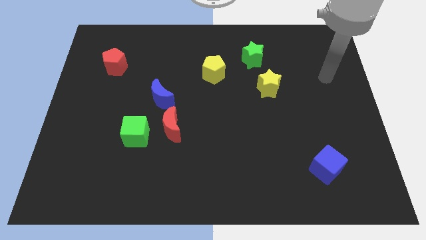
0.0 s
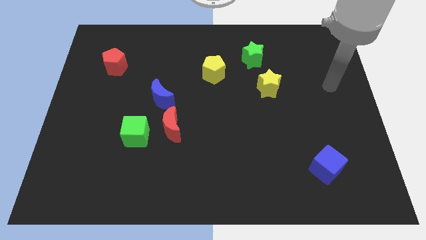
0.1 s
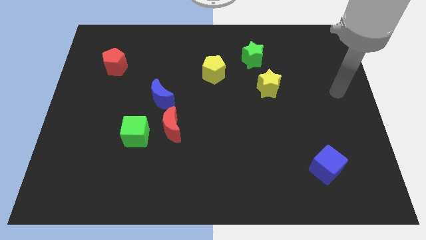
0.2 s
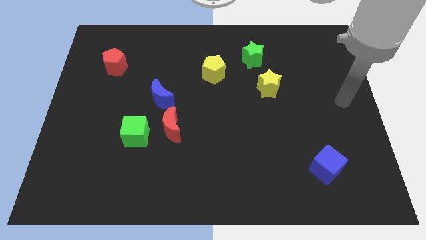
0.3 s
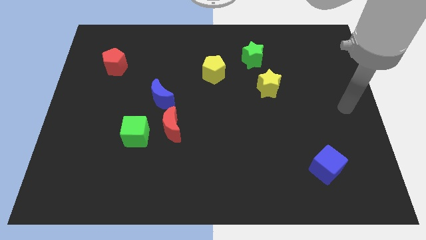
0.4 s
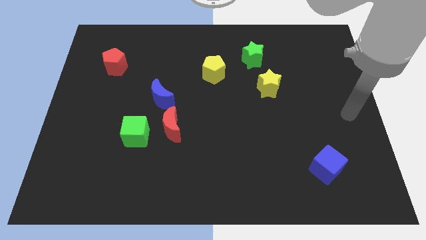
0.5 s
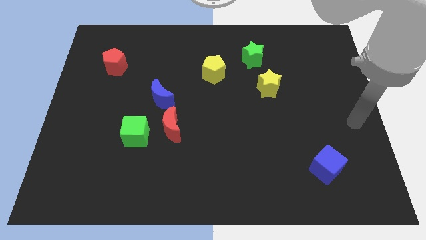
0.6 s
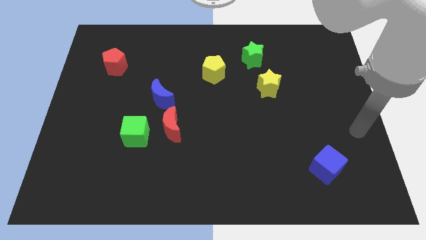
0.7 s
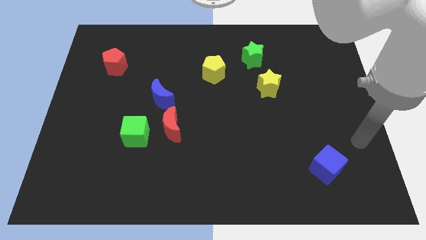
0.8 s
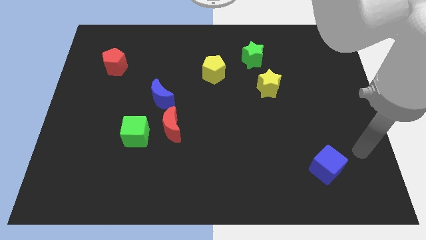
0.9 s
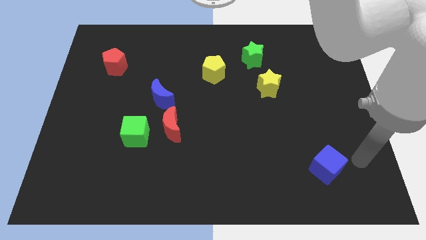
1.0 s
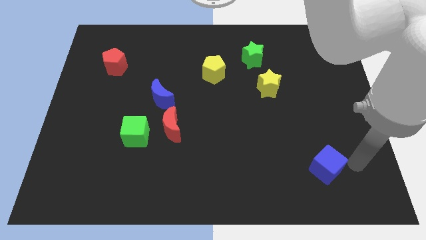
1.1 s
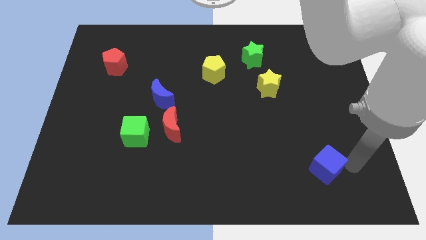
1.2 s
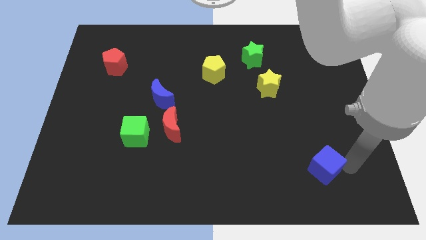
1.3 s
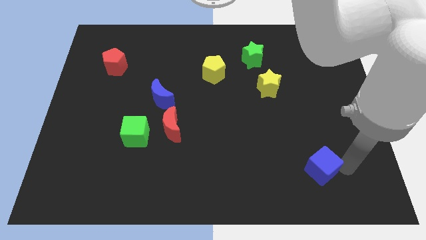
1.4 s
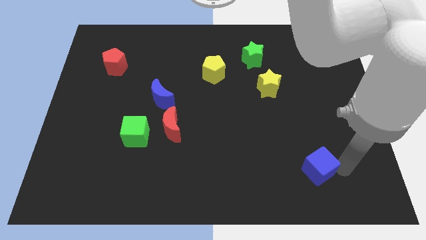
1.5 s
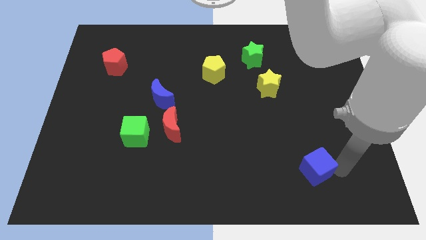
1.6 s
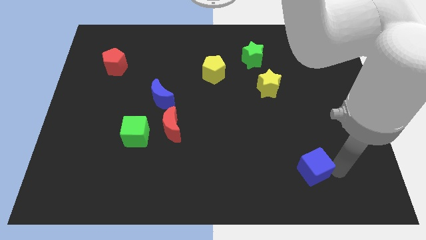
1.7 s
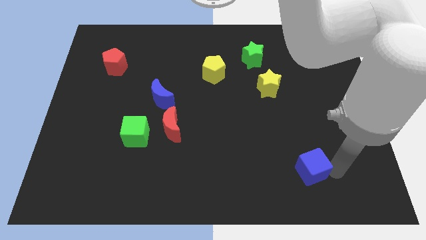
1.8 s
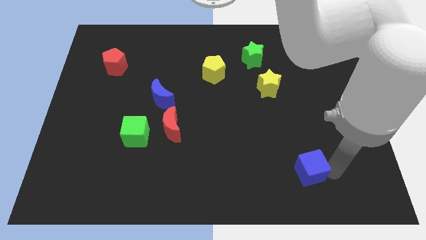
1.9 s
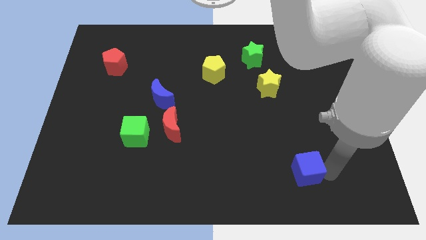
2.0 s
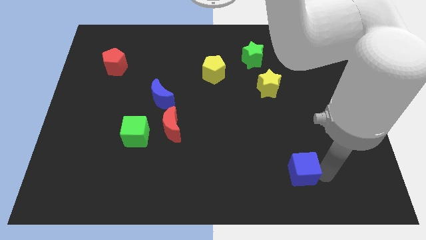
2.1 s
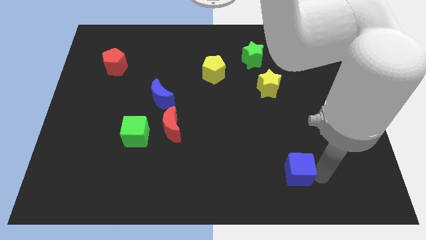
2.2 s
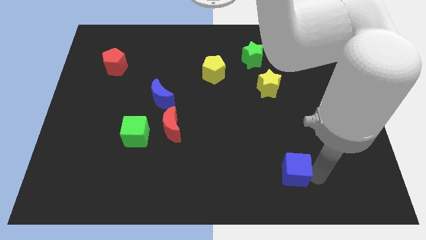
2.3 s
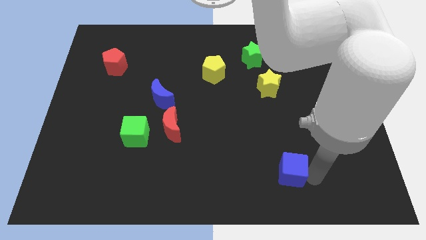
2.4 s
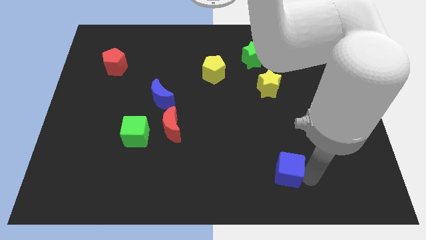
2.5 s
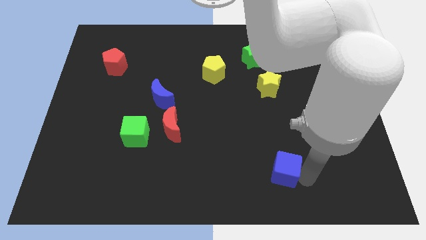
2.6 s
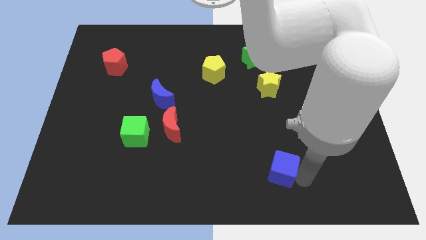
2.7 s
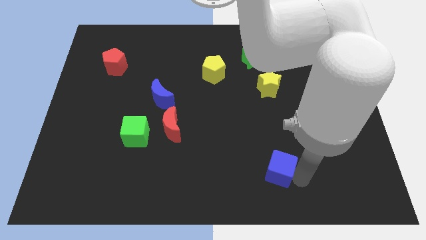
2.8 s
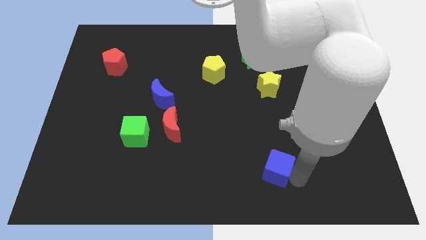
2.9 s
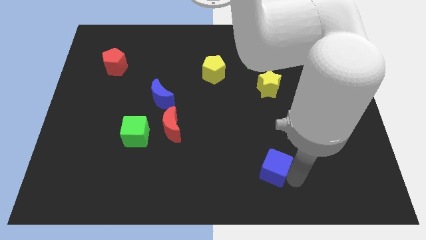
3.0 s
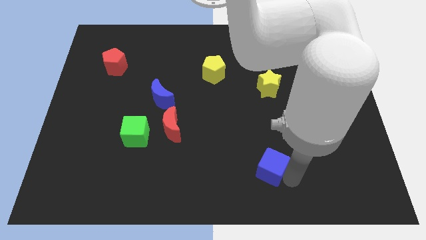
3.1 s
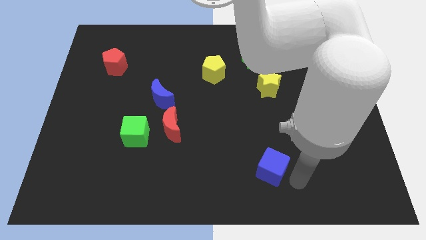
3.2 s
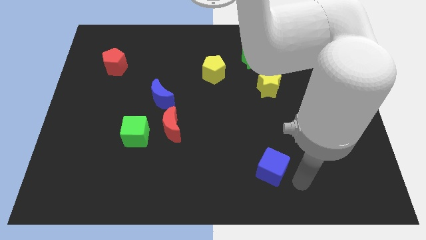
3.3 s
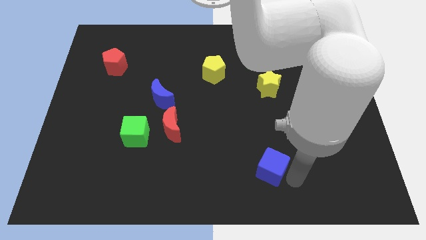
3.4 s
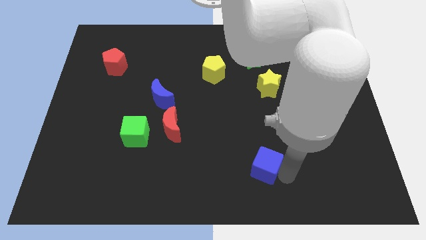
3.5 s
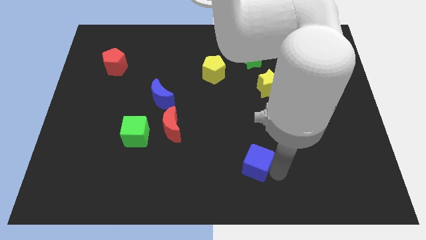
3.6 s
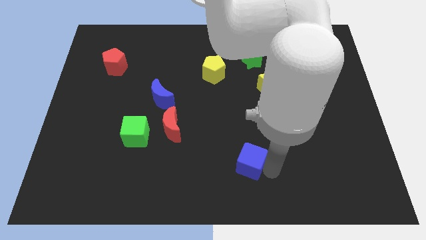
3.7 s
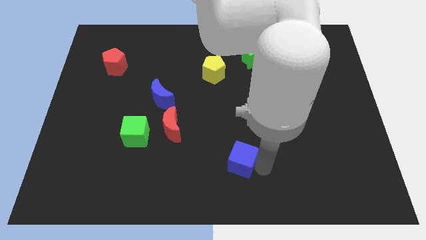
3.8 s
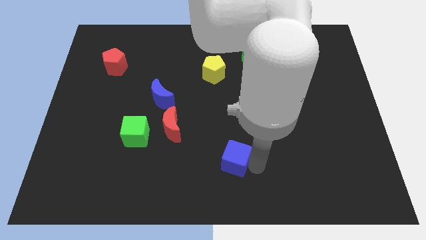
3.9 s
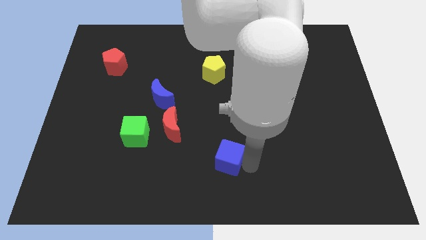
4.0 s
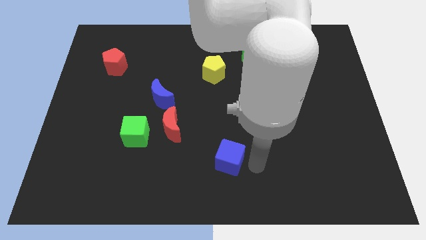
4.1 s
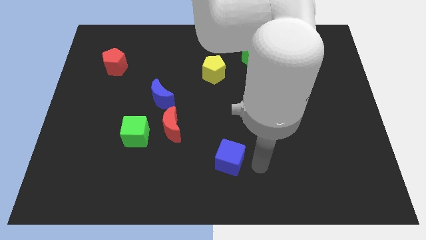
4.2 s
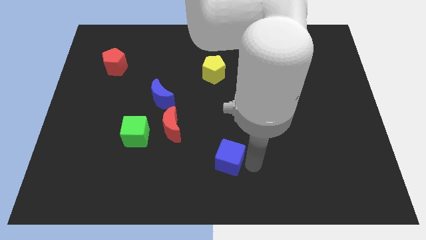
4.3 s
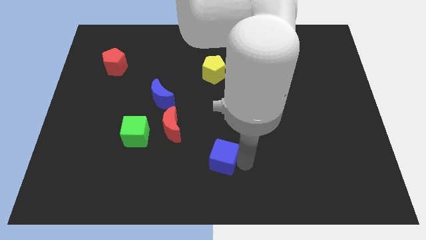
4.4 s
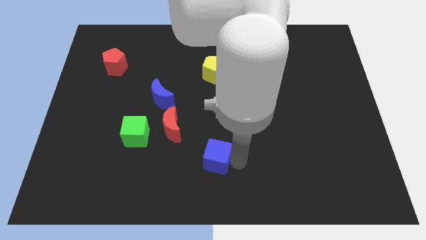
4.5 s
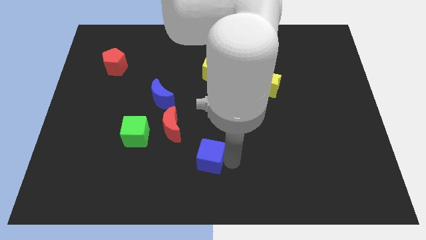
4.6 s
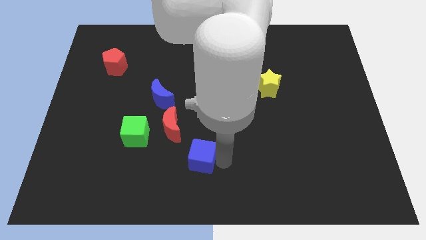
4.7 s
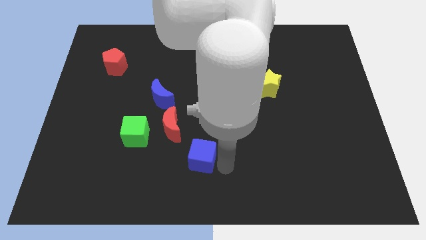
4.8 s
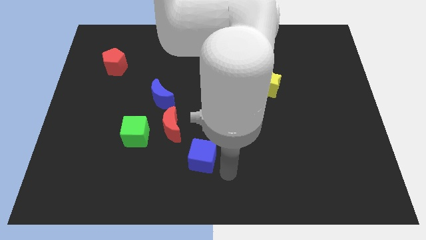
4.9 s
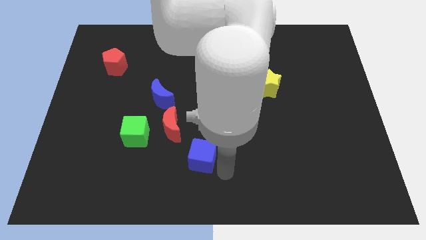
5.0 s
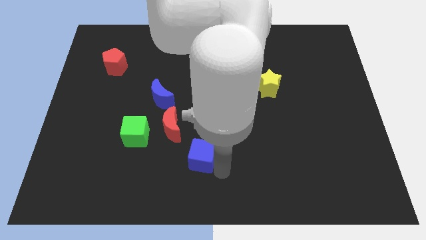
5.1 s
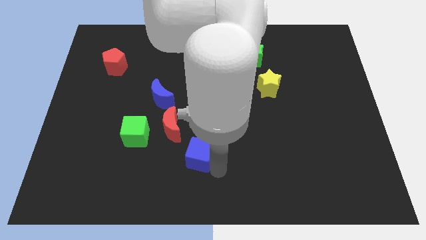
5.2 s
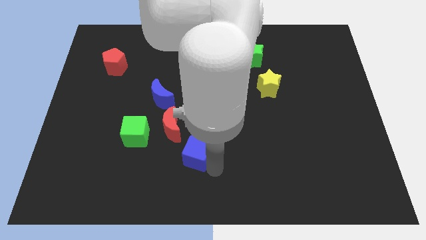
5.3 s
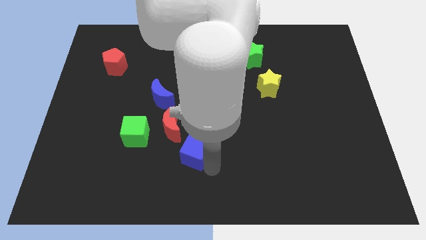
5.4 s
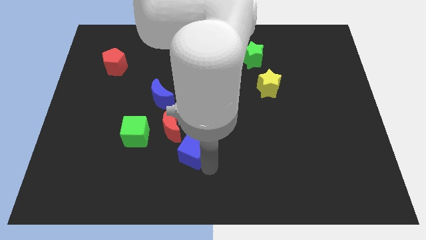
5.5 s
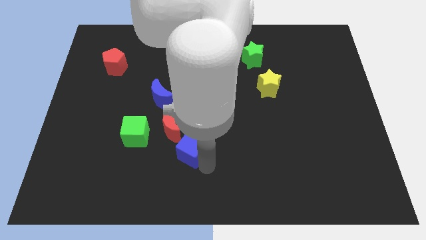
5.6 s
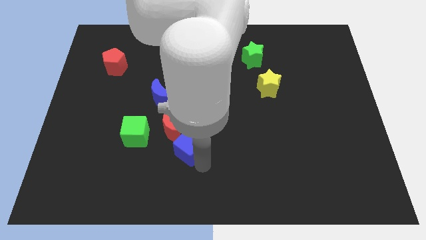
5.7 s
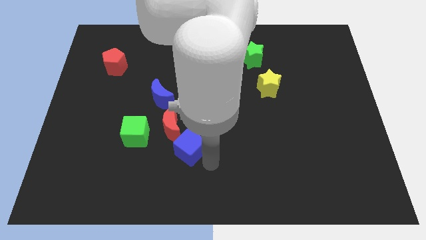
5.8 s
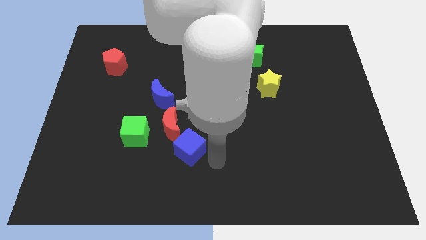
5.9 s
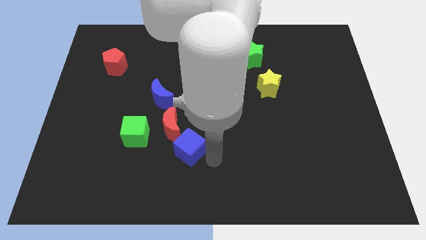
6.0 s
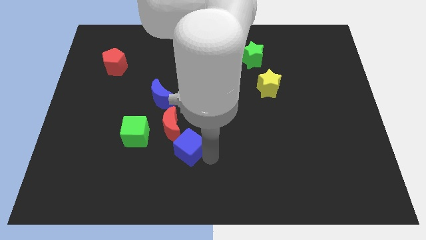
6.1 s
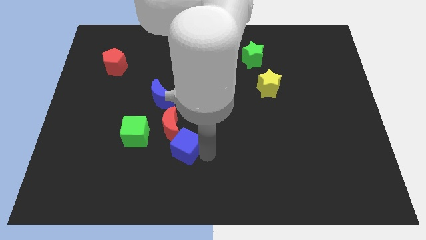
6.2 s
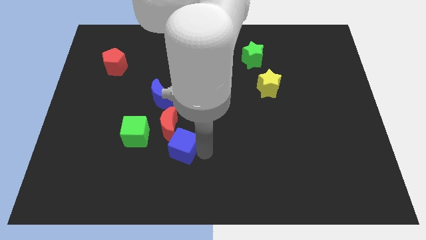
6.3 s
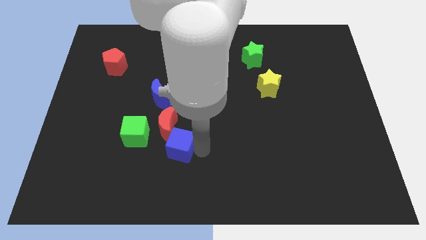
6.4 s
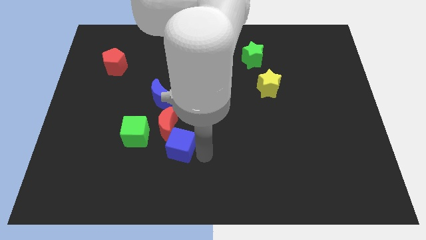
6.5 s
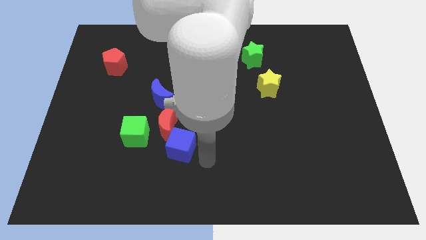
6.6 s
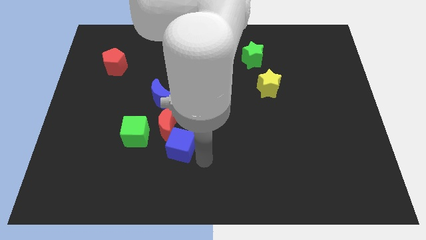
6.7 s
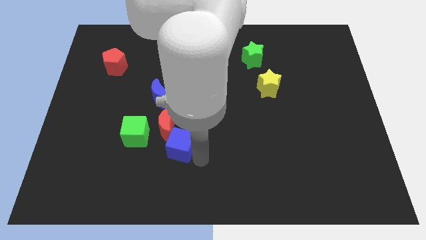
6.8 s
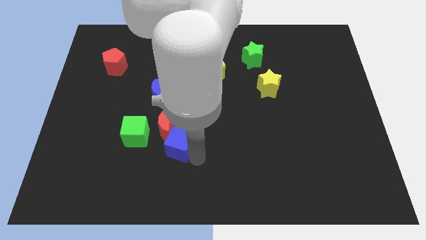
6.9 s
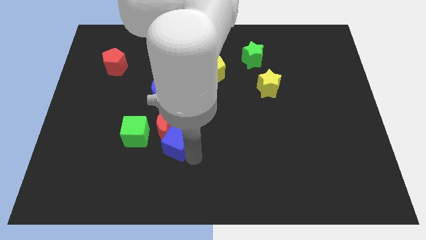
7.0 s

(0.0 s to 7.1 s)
slide the blue cube to the bottom of the blue moon
